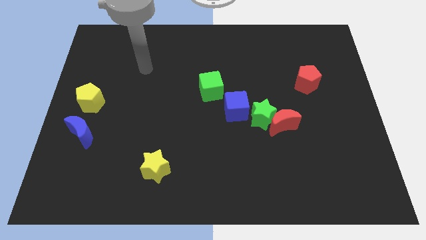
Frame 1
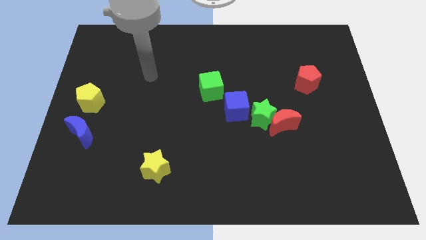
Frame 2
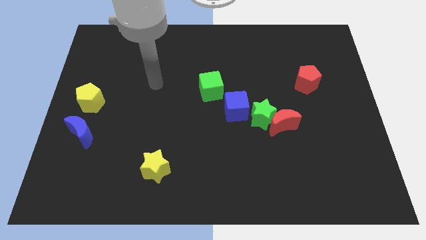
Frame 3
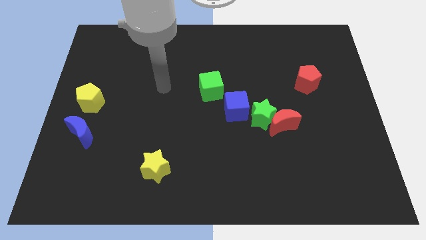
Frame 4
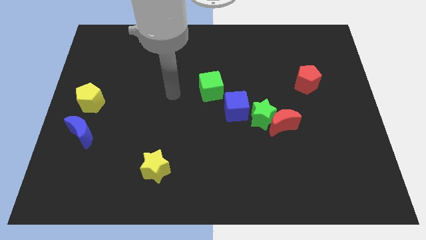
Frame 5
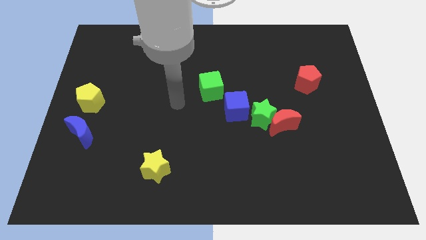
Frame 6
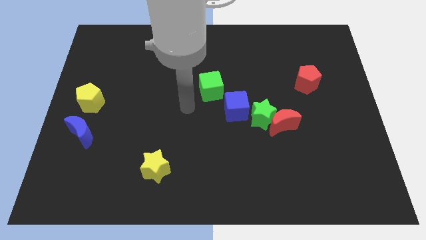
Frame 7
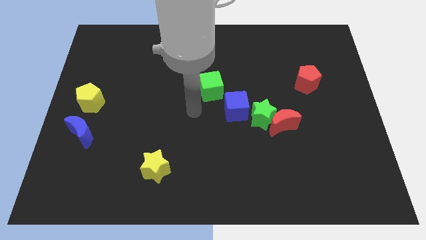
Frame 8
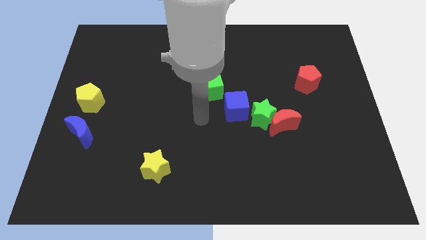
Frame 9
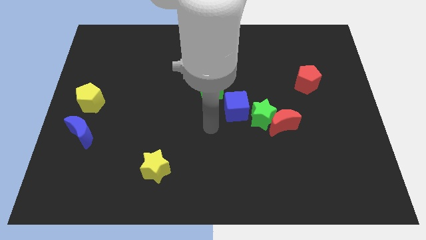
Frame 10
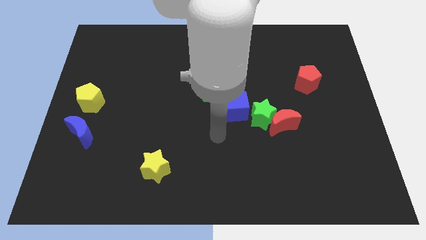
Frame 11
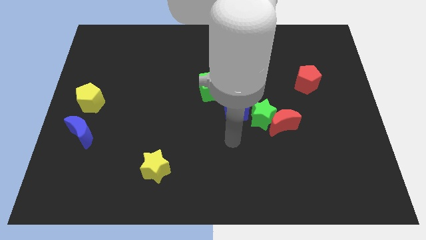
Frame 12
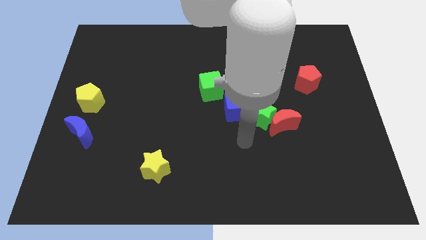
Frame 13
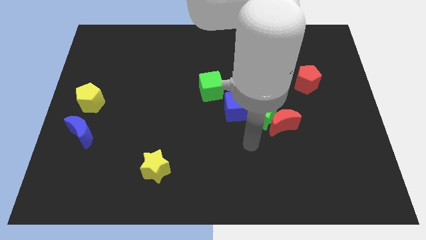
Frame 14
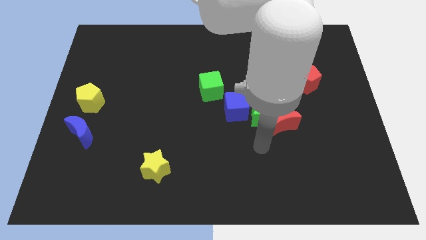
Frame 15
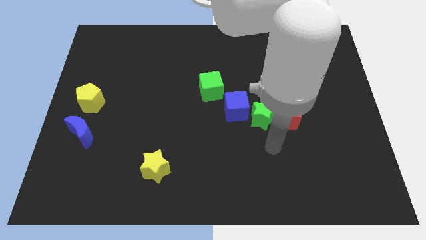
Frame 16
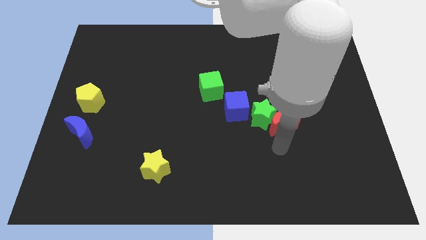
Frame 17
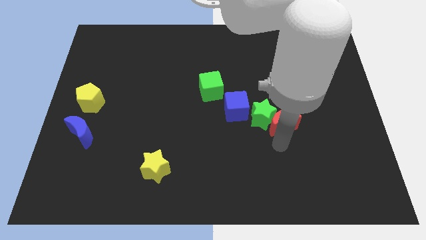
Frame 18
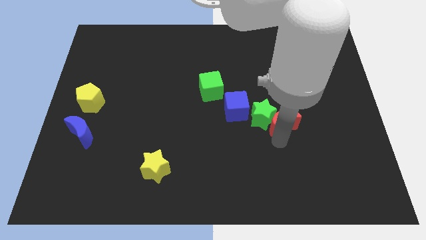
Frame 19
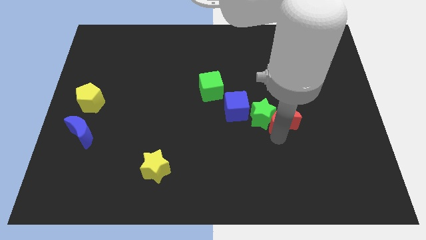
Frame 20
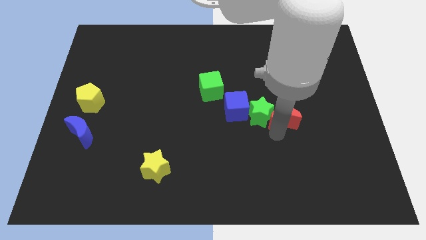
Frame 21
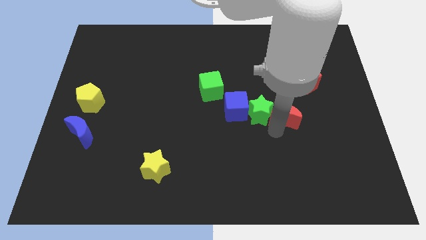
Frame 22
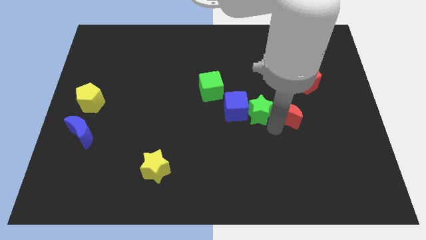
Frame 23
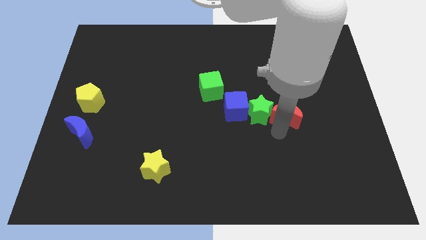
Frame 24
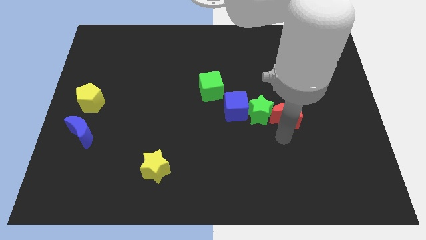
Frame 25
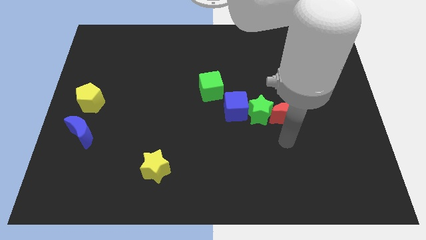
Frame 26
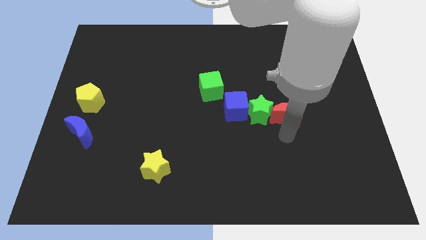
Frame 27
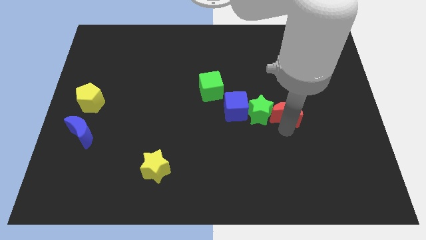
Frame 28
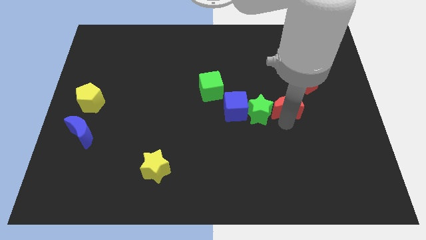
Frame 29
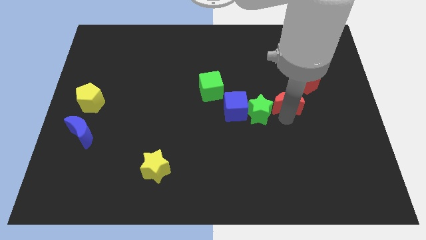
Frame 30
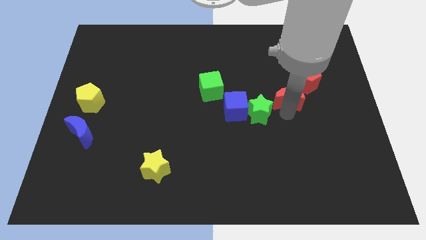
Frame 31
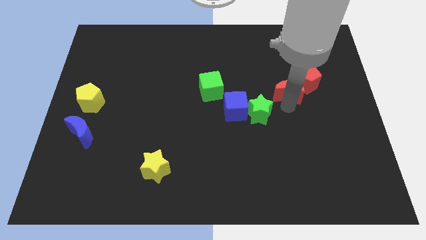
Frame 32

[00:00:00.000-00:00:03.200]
push the red moon slightly up

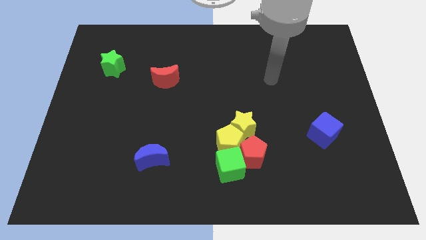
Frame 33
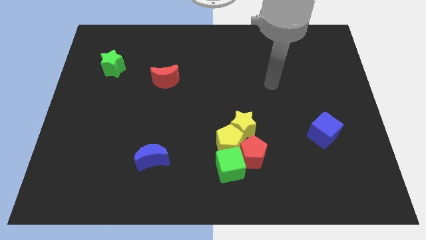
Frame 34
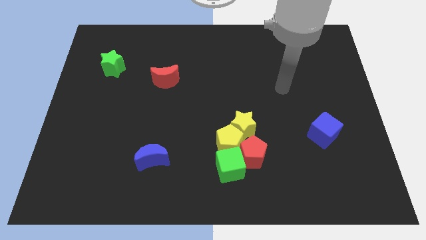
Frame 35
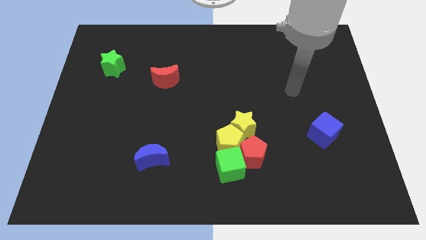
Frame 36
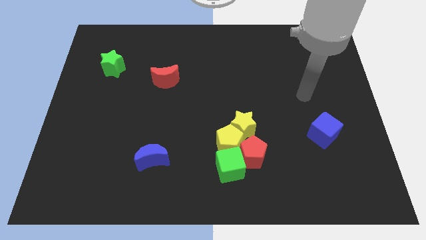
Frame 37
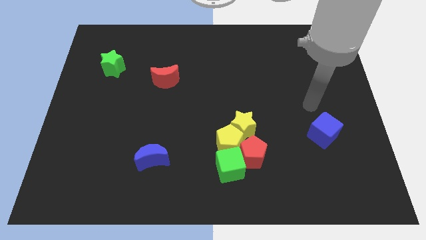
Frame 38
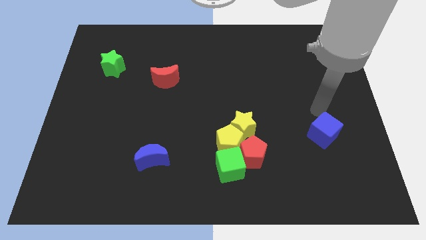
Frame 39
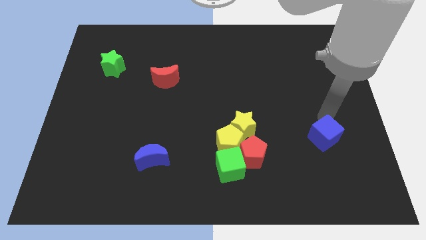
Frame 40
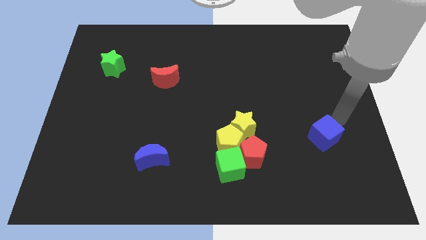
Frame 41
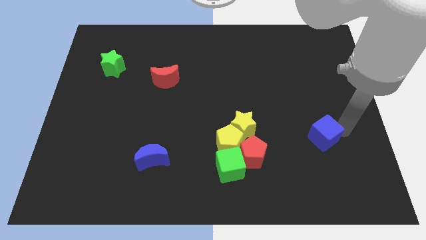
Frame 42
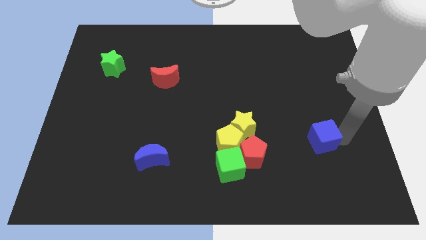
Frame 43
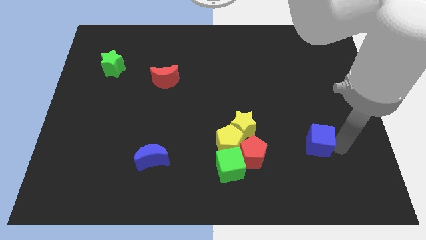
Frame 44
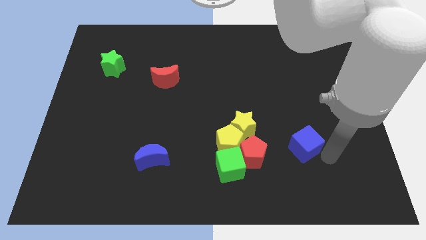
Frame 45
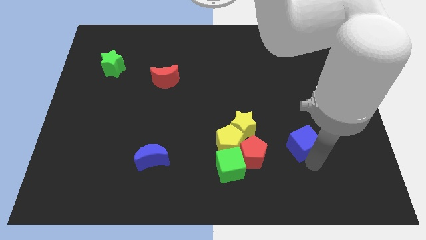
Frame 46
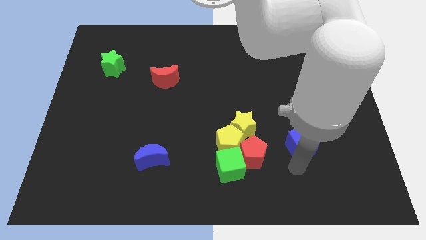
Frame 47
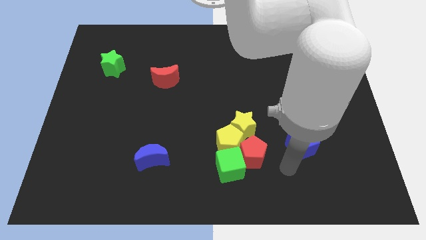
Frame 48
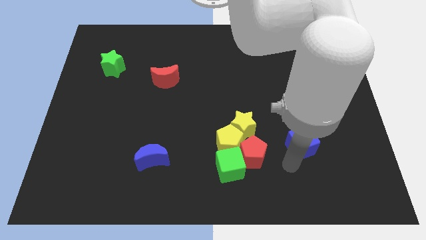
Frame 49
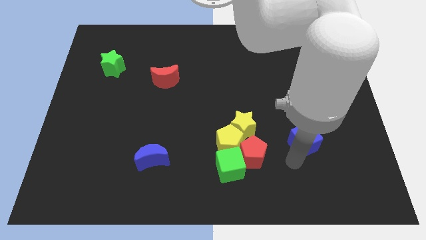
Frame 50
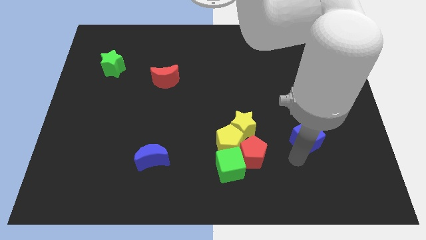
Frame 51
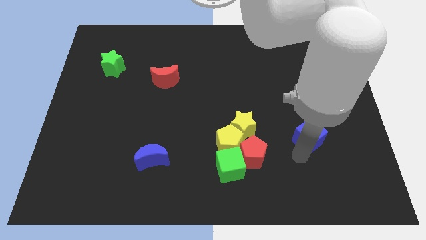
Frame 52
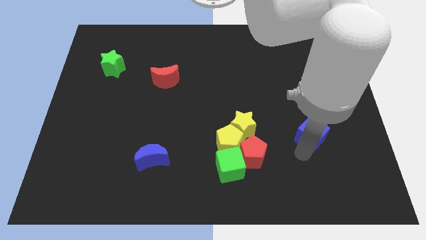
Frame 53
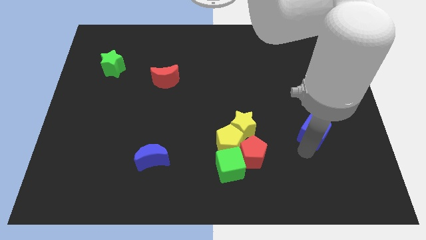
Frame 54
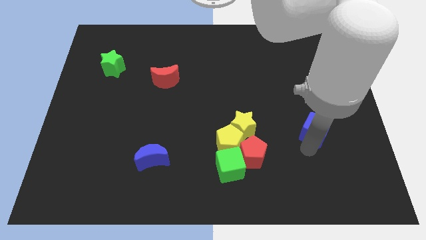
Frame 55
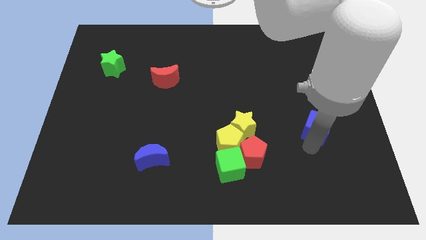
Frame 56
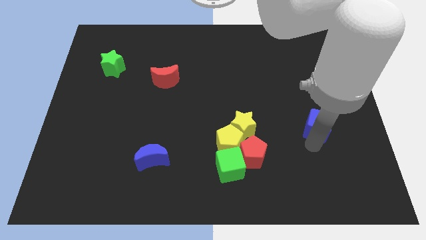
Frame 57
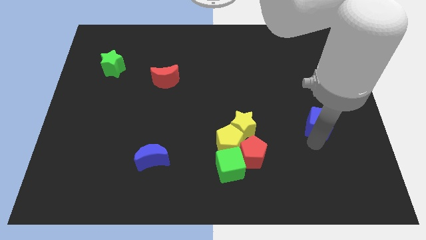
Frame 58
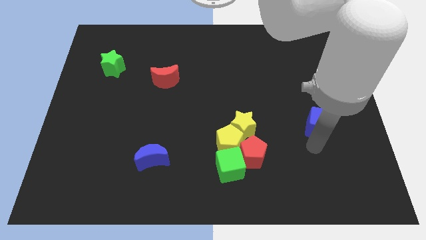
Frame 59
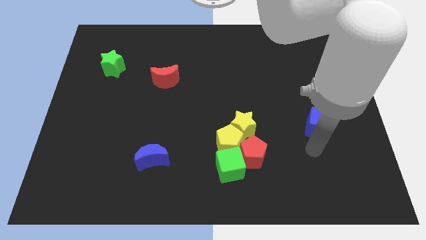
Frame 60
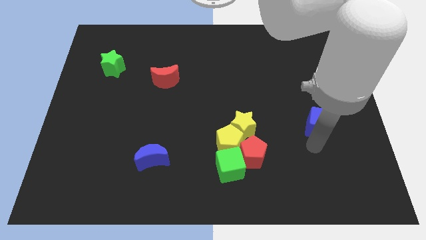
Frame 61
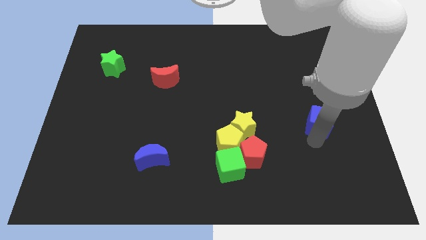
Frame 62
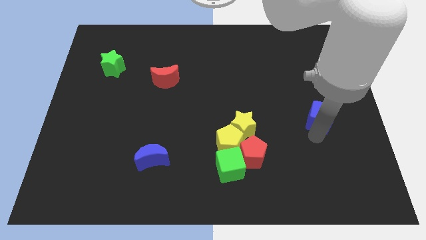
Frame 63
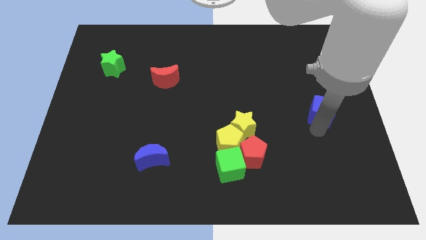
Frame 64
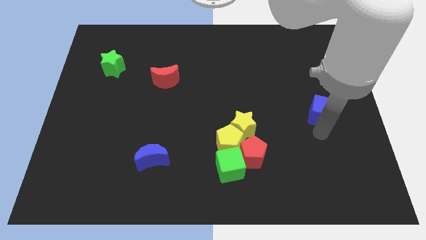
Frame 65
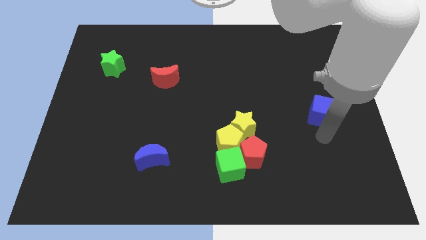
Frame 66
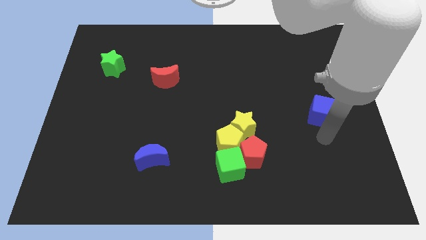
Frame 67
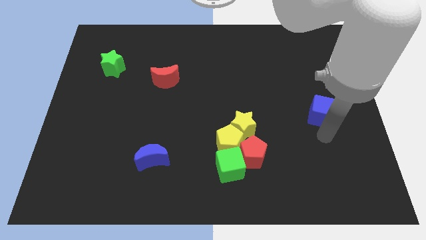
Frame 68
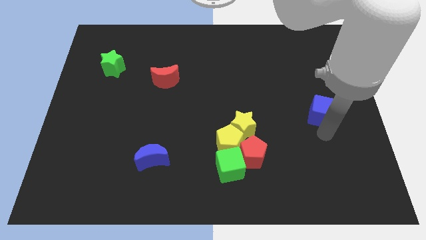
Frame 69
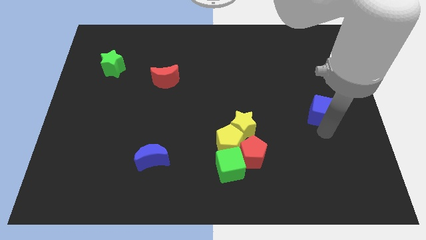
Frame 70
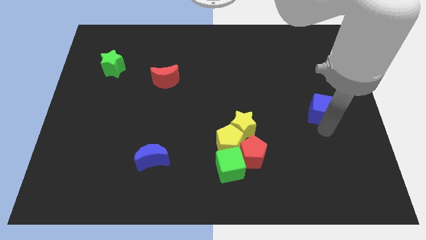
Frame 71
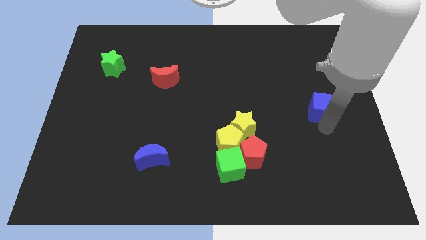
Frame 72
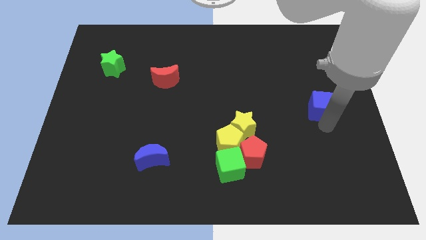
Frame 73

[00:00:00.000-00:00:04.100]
slide the blue cube a little upwards

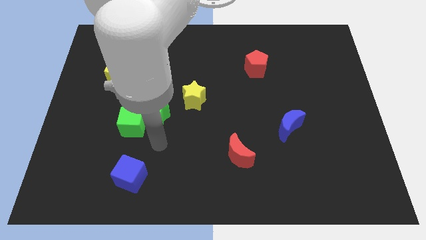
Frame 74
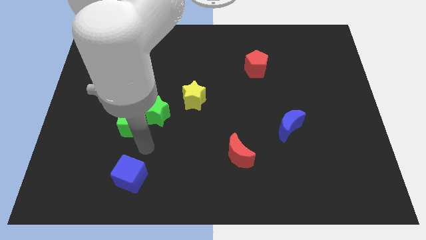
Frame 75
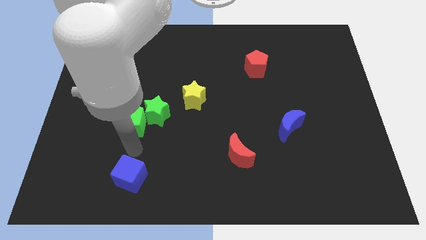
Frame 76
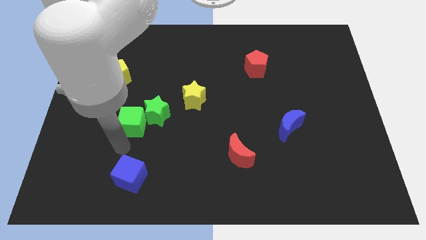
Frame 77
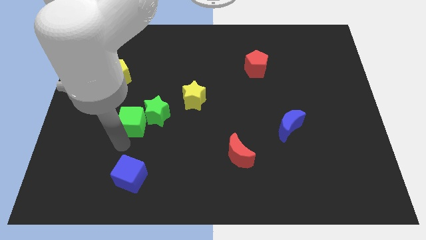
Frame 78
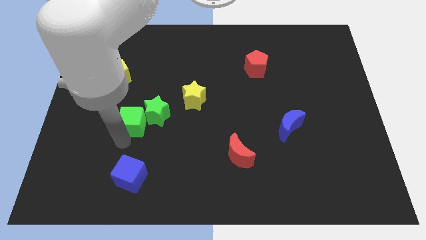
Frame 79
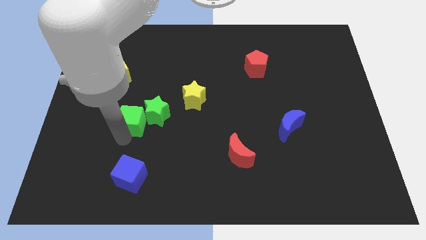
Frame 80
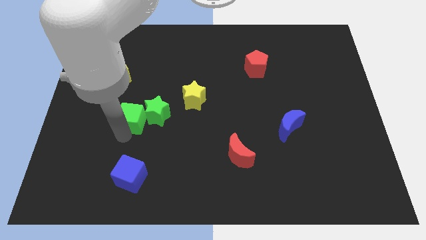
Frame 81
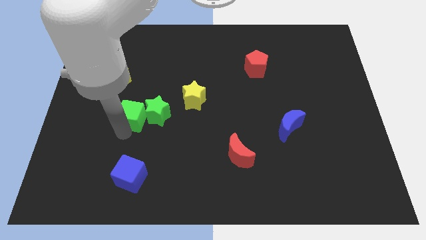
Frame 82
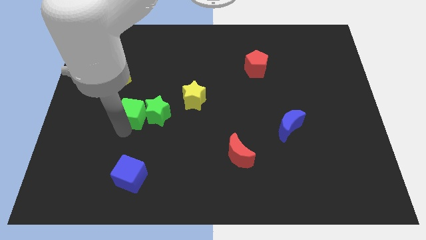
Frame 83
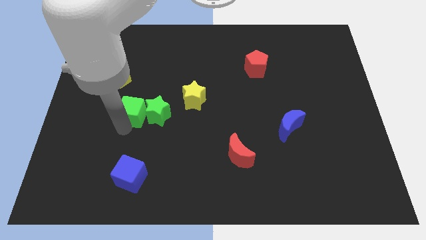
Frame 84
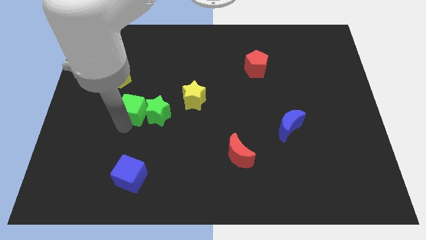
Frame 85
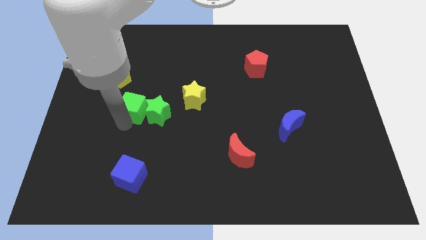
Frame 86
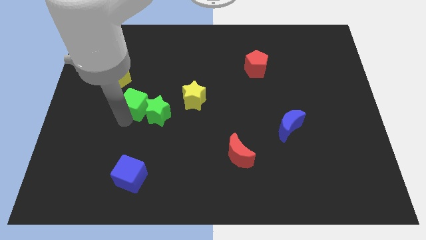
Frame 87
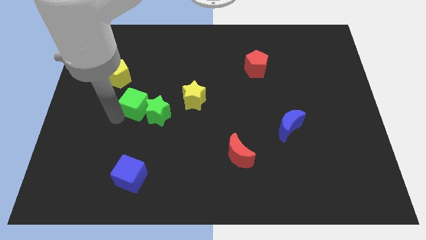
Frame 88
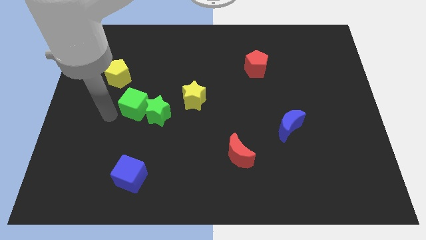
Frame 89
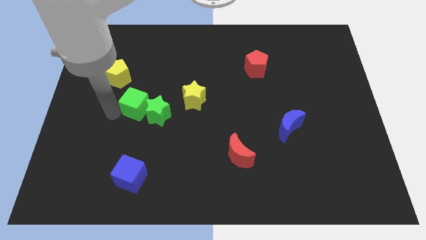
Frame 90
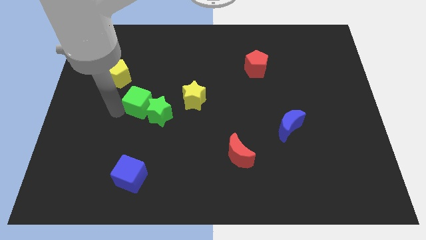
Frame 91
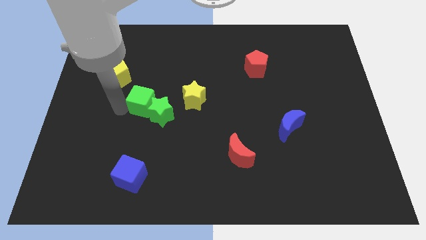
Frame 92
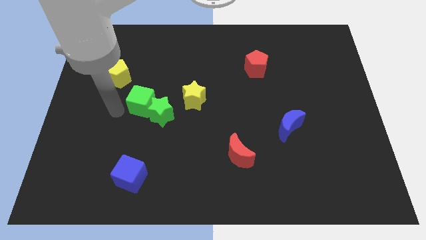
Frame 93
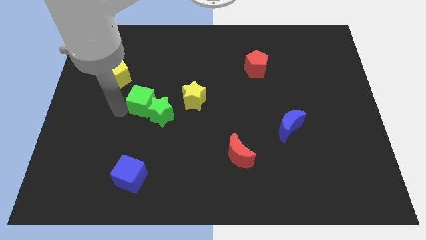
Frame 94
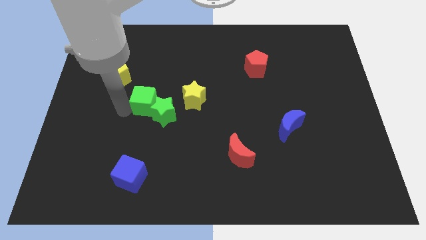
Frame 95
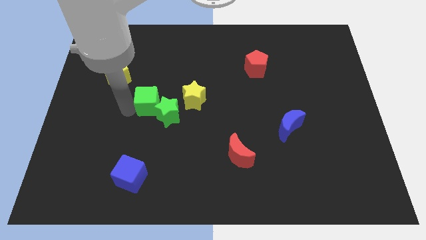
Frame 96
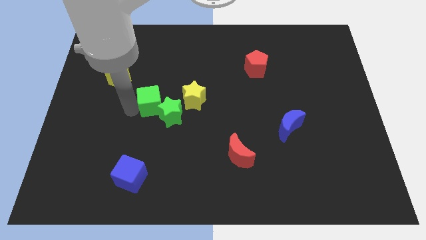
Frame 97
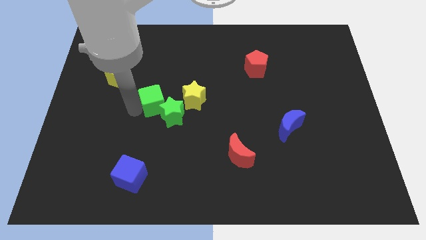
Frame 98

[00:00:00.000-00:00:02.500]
slide the green cube a little bit diagonally up and right
